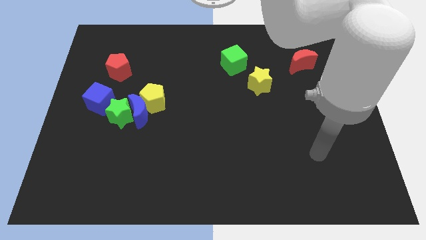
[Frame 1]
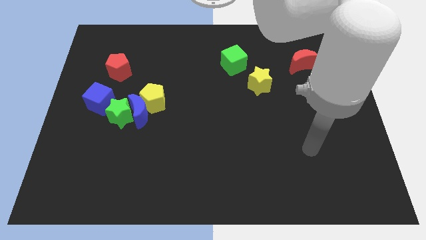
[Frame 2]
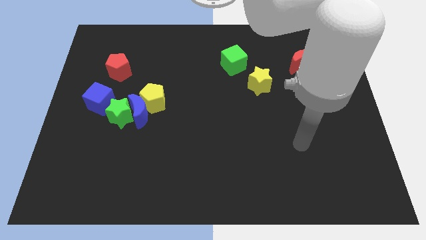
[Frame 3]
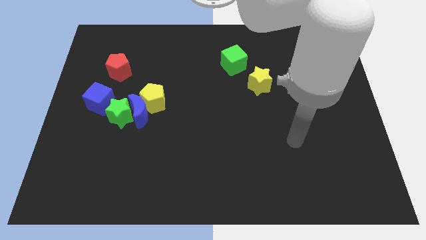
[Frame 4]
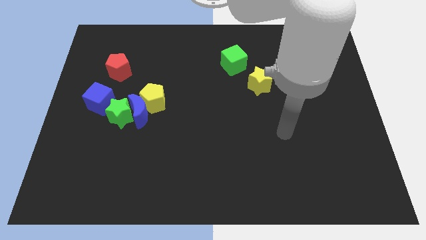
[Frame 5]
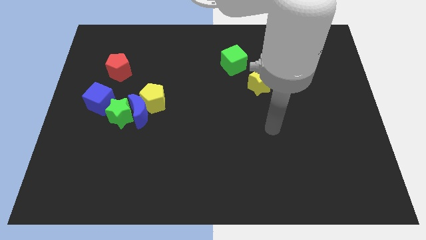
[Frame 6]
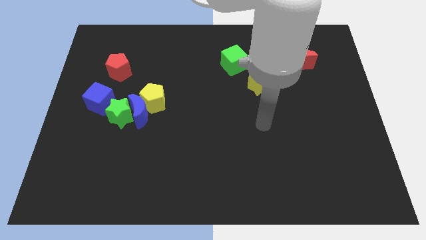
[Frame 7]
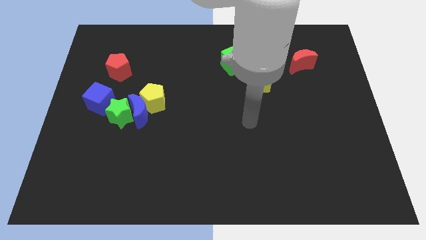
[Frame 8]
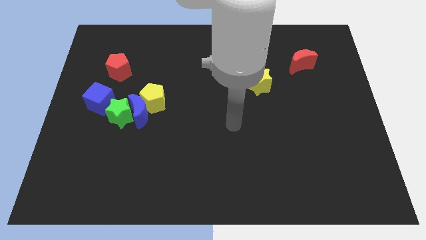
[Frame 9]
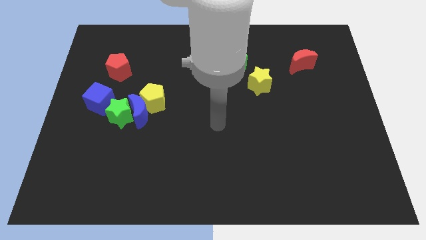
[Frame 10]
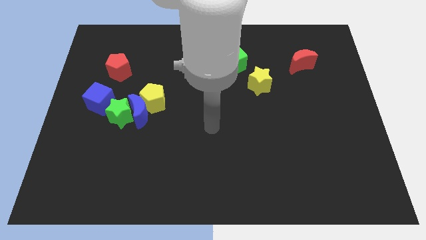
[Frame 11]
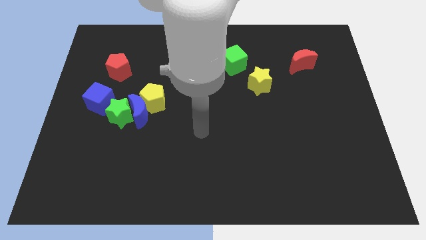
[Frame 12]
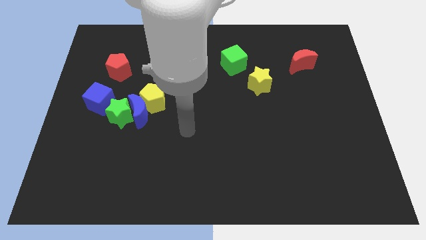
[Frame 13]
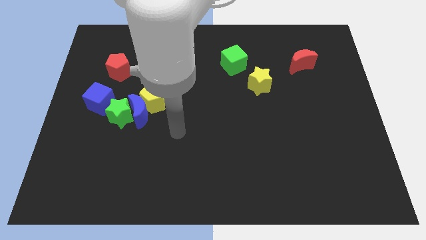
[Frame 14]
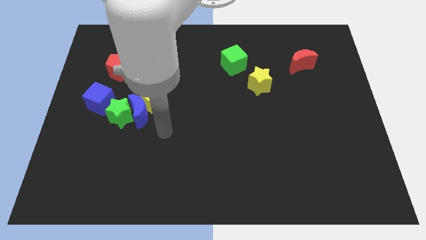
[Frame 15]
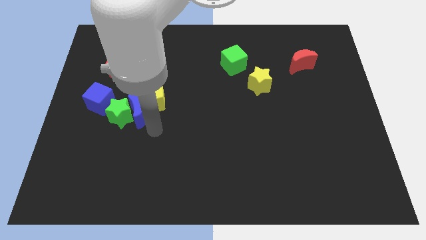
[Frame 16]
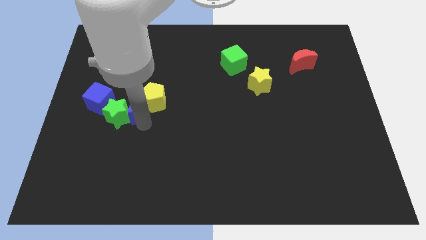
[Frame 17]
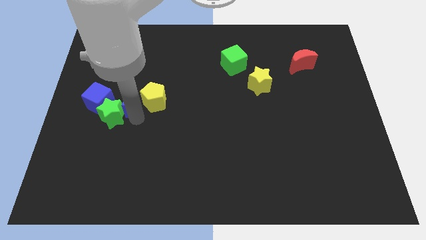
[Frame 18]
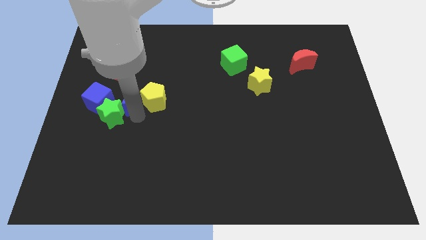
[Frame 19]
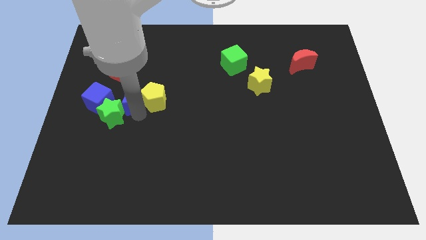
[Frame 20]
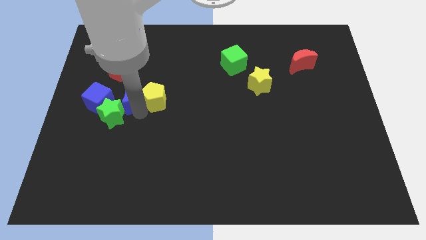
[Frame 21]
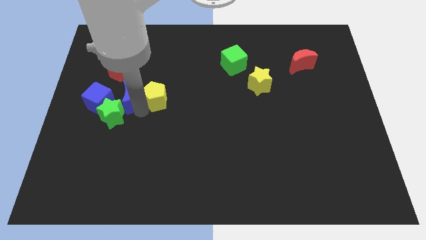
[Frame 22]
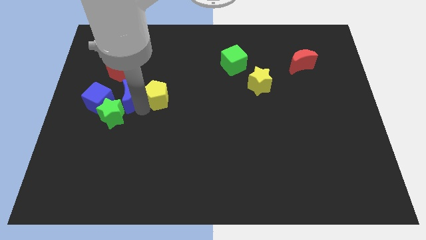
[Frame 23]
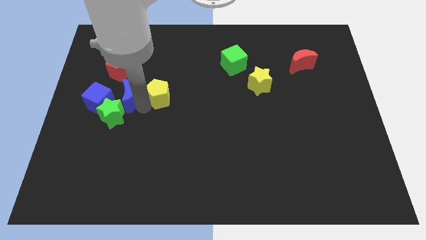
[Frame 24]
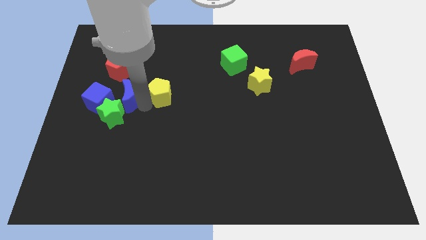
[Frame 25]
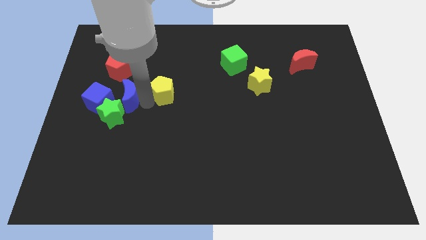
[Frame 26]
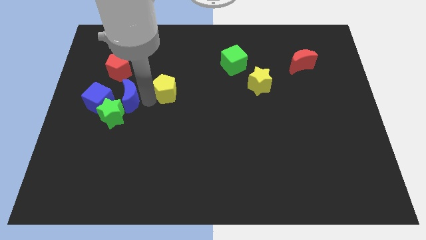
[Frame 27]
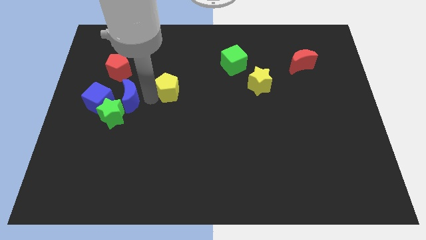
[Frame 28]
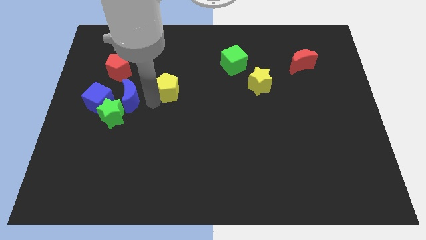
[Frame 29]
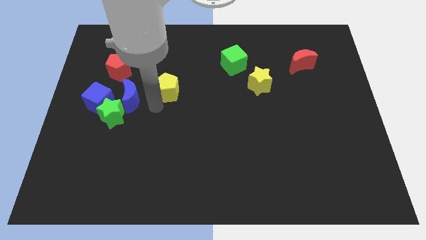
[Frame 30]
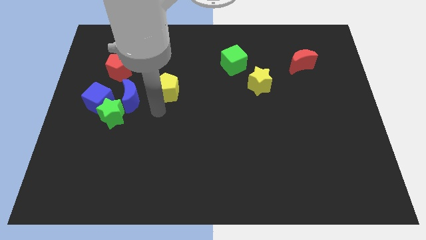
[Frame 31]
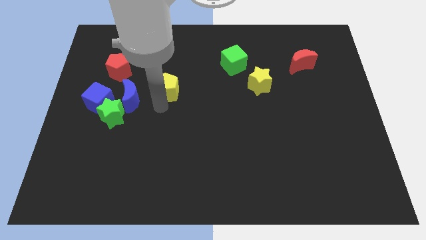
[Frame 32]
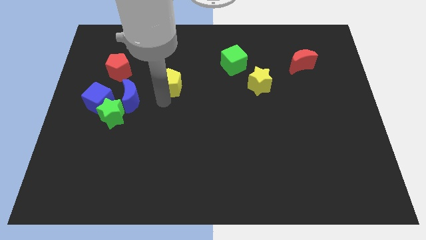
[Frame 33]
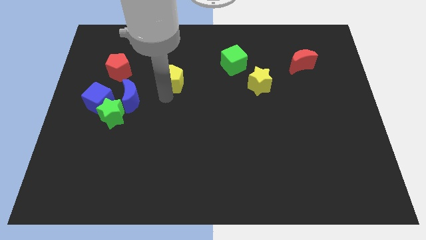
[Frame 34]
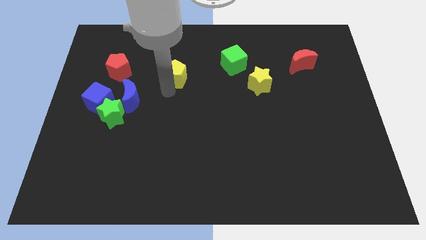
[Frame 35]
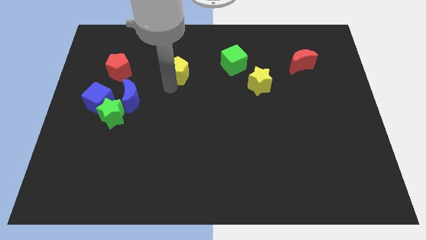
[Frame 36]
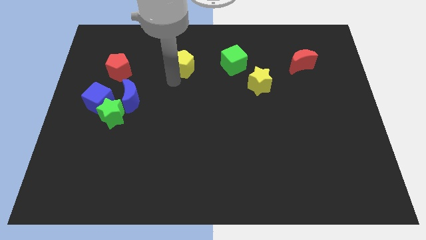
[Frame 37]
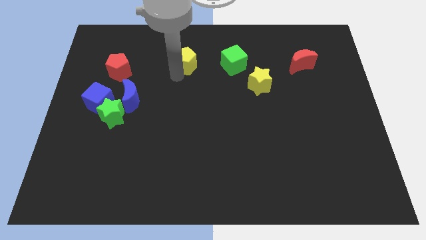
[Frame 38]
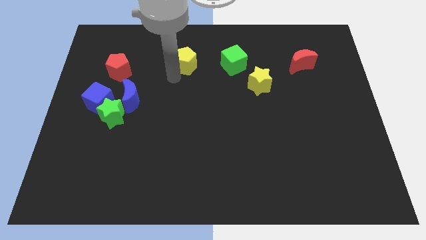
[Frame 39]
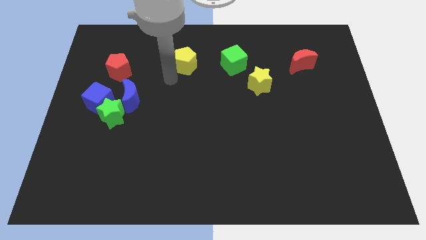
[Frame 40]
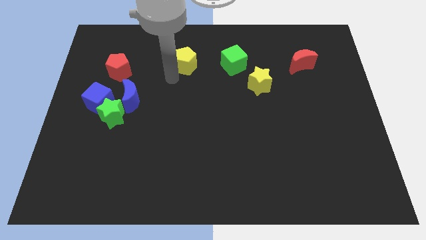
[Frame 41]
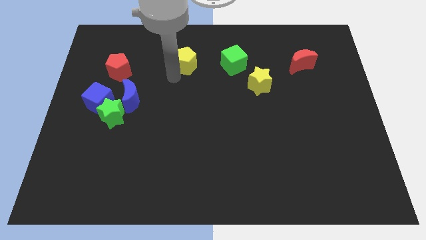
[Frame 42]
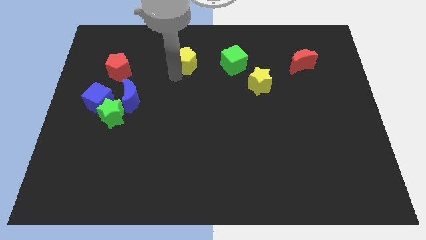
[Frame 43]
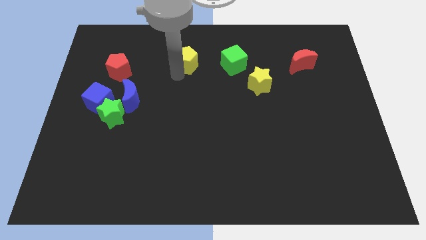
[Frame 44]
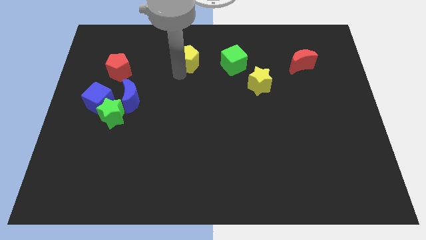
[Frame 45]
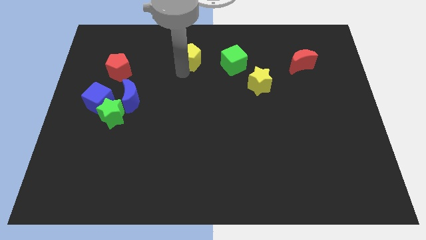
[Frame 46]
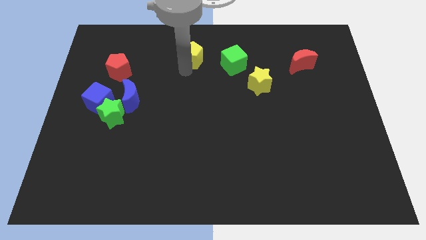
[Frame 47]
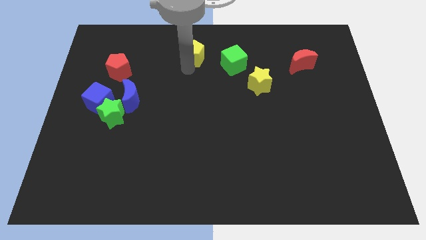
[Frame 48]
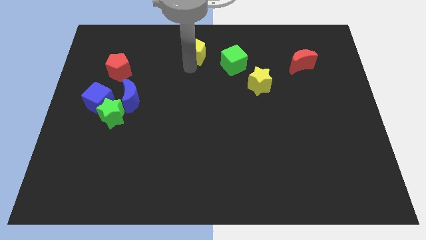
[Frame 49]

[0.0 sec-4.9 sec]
push the yellow pentagon to the top side

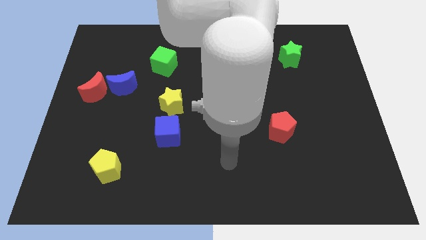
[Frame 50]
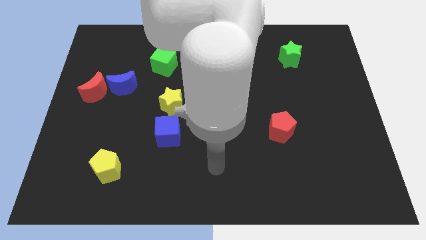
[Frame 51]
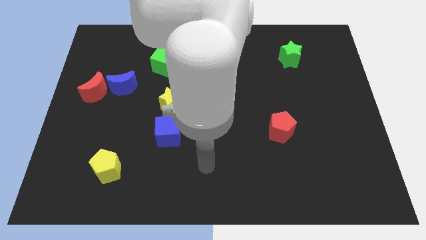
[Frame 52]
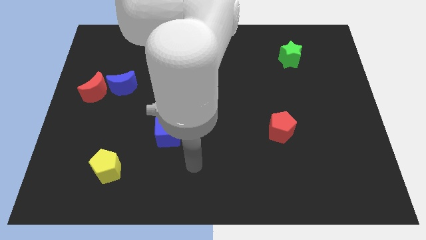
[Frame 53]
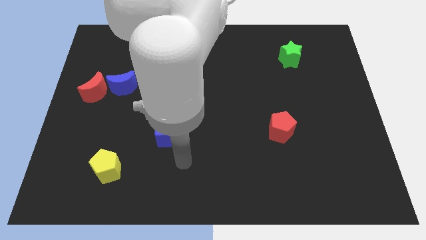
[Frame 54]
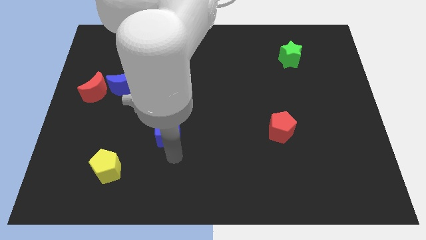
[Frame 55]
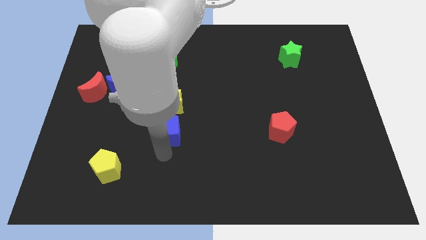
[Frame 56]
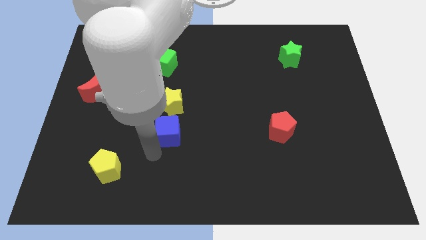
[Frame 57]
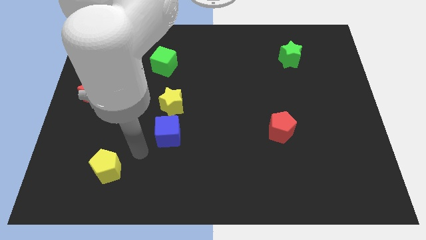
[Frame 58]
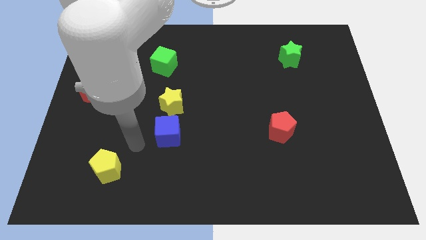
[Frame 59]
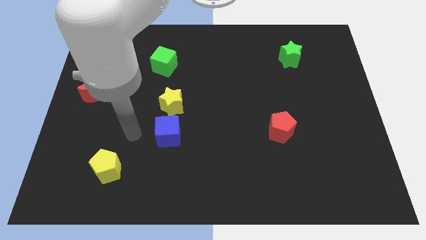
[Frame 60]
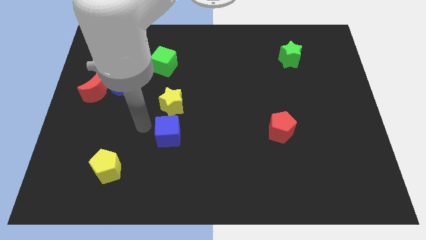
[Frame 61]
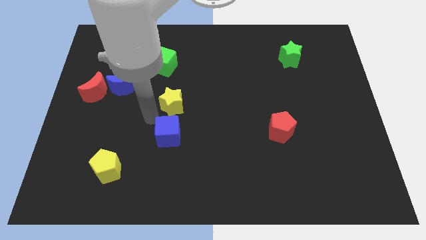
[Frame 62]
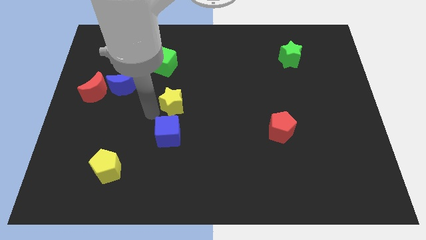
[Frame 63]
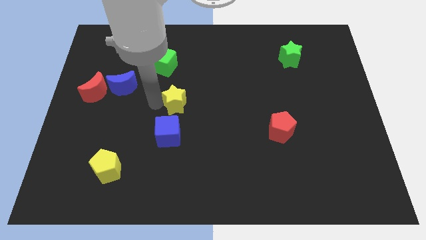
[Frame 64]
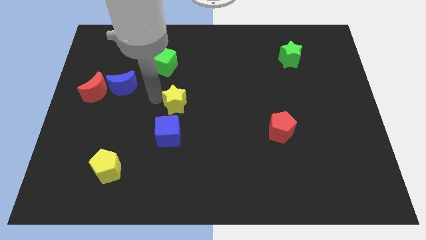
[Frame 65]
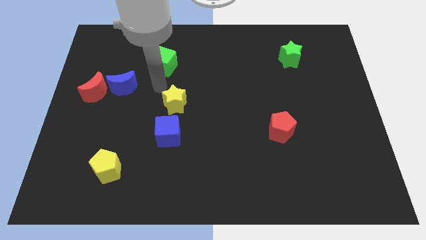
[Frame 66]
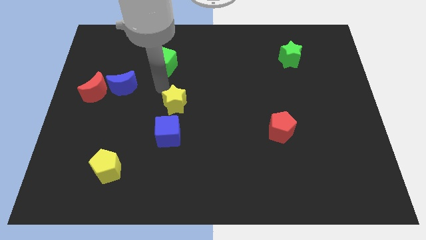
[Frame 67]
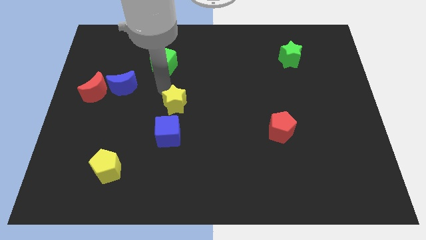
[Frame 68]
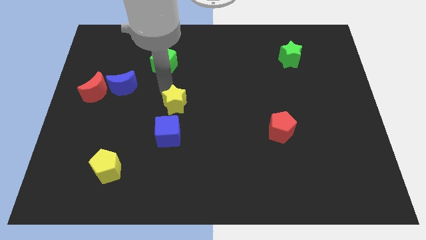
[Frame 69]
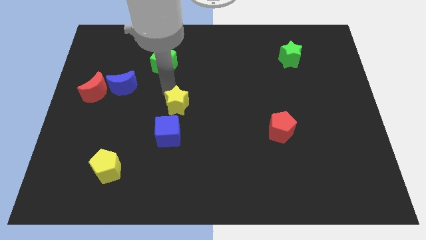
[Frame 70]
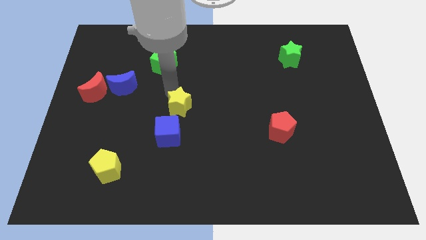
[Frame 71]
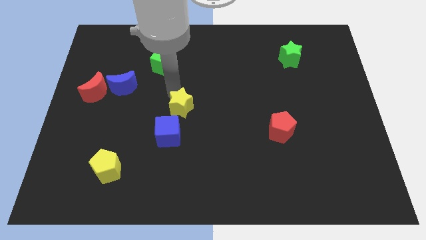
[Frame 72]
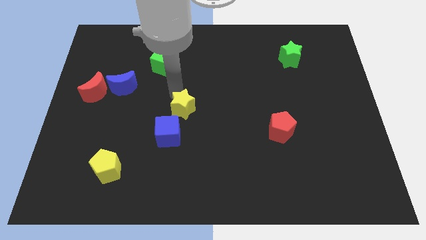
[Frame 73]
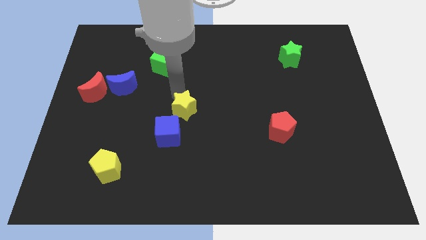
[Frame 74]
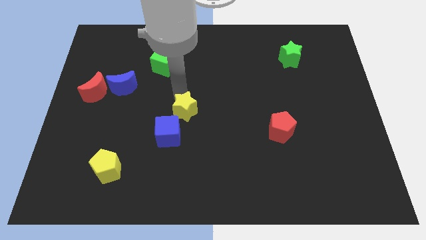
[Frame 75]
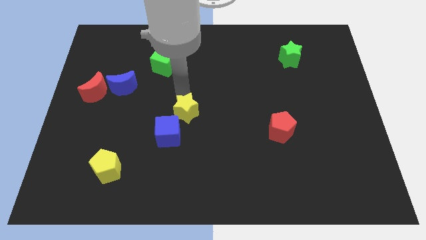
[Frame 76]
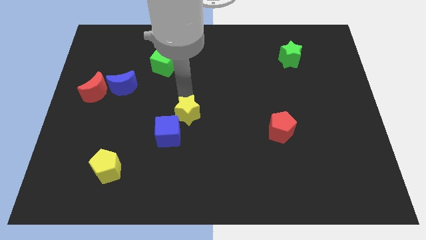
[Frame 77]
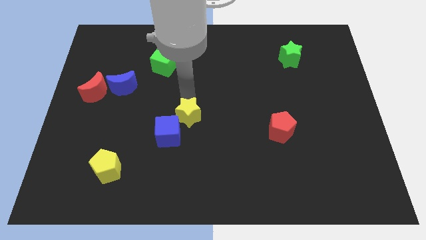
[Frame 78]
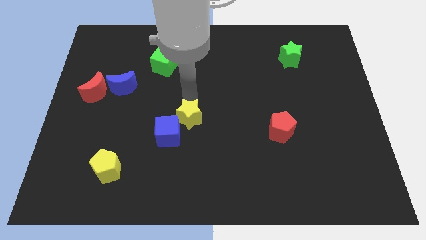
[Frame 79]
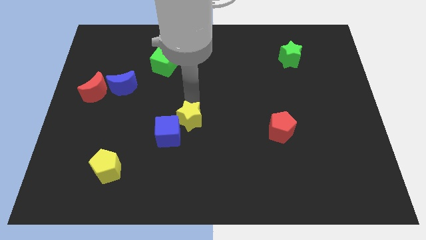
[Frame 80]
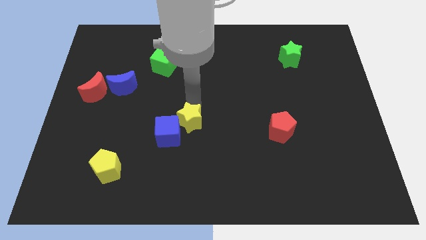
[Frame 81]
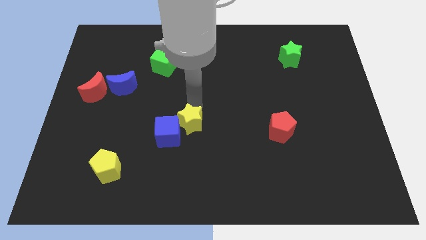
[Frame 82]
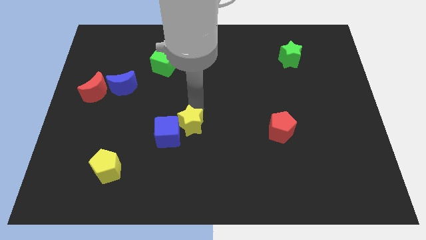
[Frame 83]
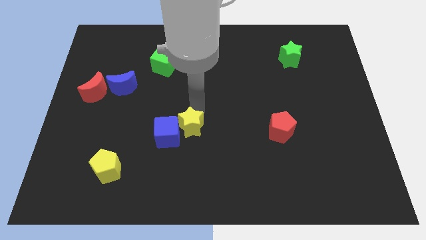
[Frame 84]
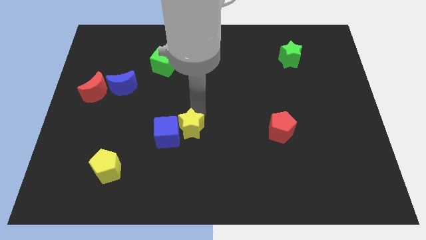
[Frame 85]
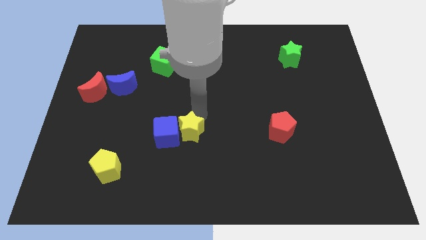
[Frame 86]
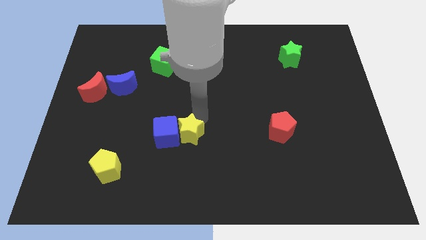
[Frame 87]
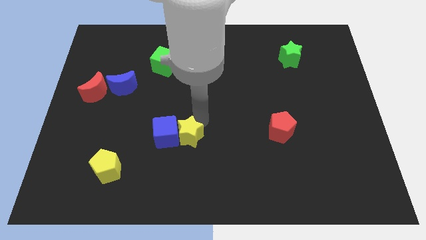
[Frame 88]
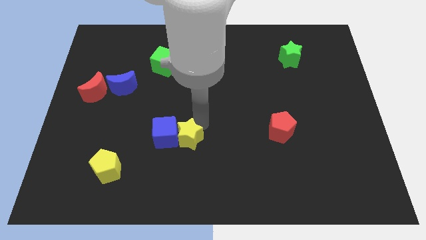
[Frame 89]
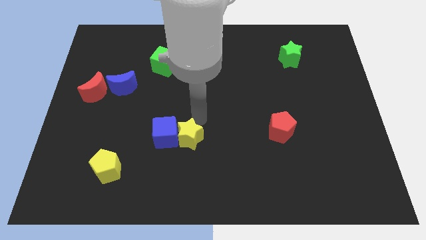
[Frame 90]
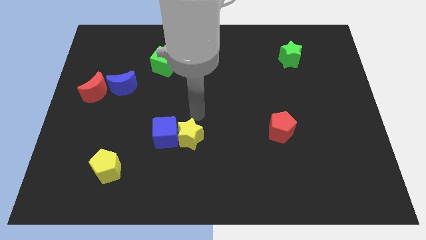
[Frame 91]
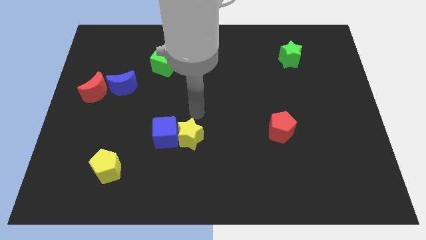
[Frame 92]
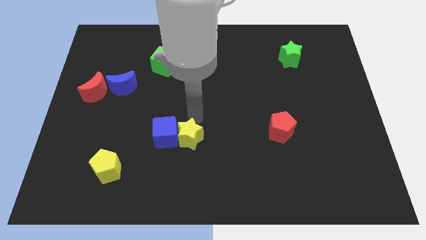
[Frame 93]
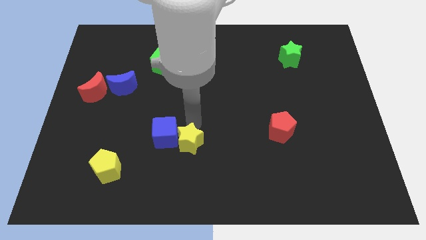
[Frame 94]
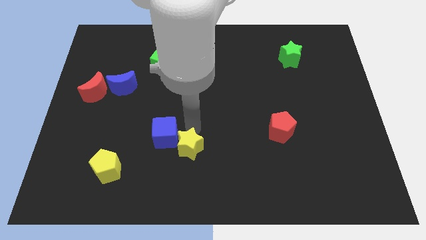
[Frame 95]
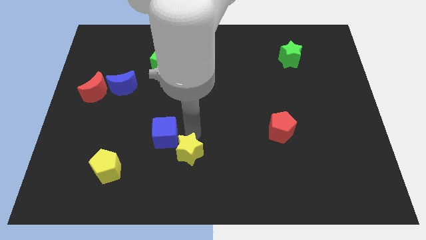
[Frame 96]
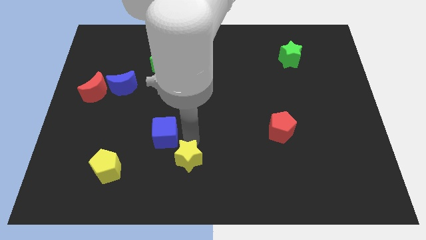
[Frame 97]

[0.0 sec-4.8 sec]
slide the yellow star to the bottom
